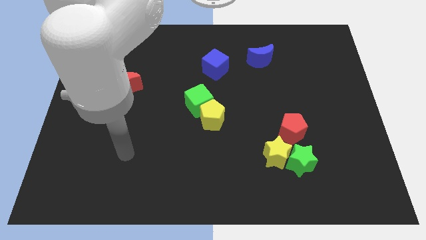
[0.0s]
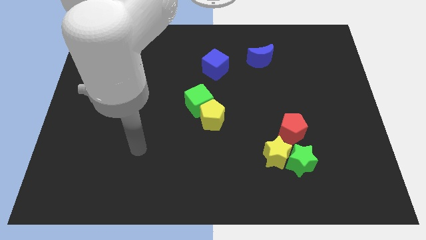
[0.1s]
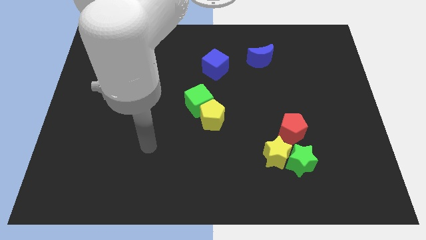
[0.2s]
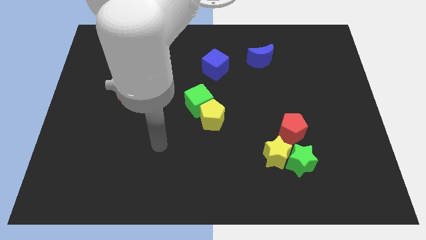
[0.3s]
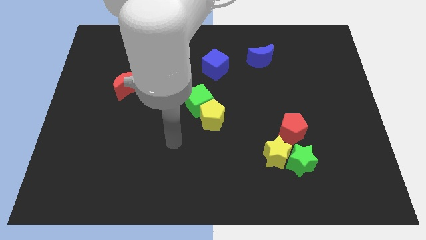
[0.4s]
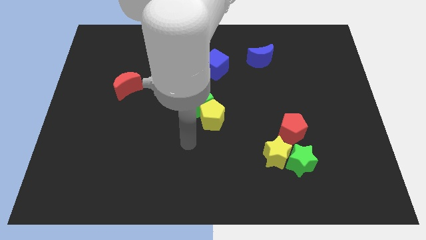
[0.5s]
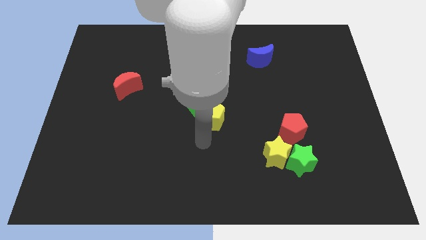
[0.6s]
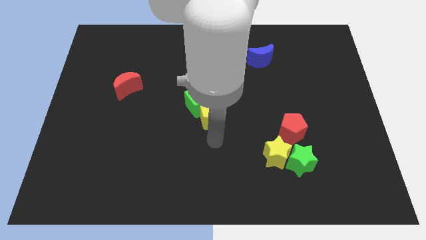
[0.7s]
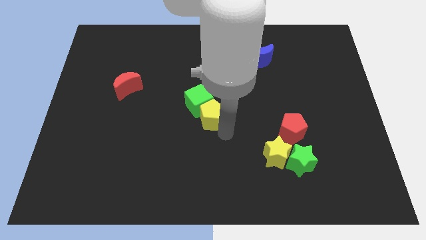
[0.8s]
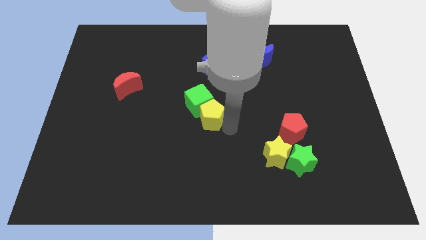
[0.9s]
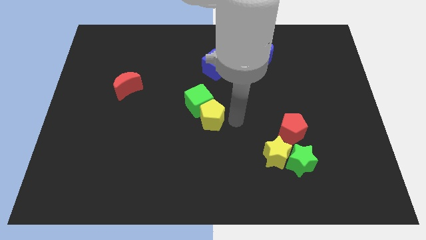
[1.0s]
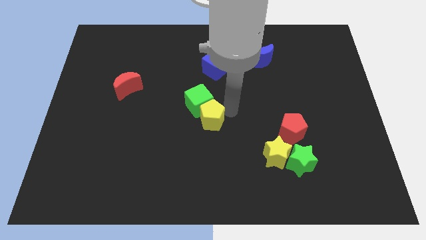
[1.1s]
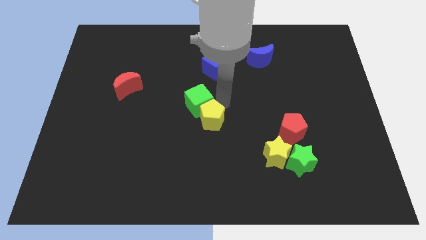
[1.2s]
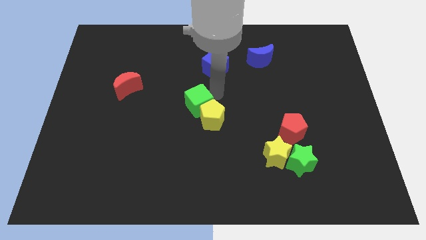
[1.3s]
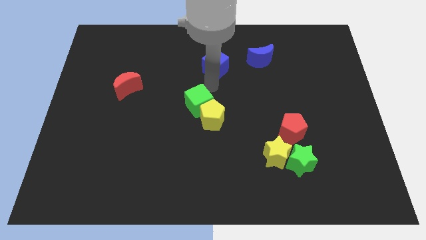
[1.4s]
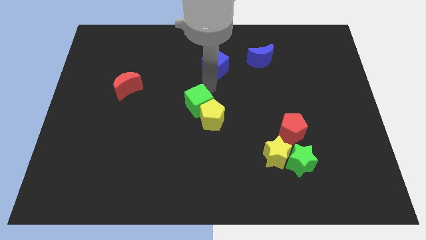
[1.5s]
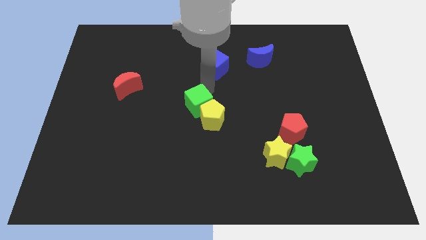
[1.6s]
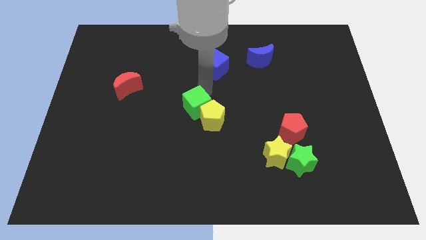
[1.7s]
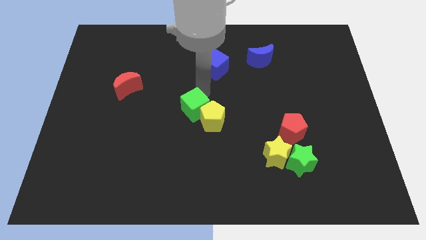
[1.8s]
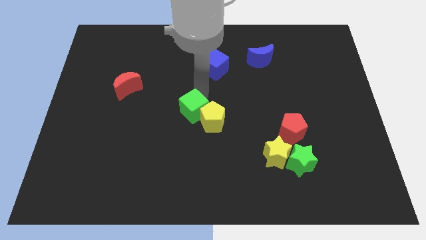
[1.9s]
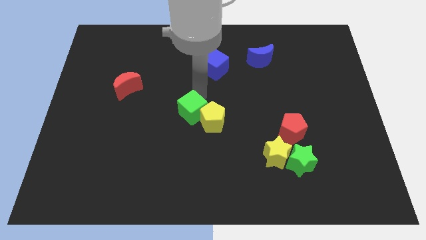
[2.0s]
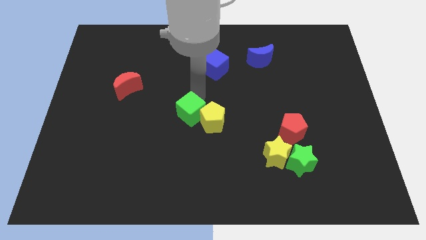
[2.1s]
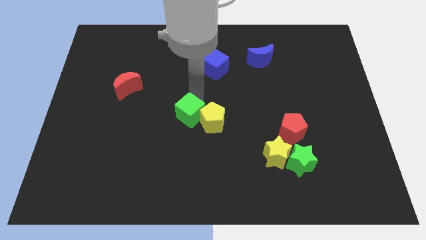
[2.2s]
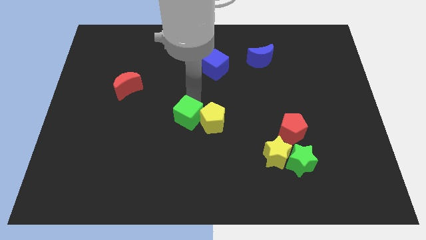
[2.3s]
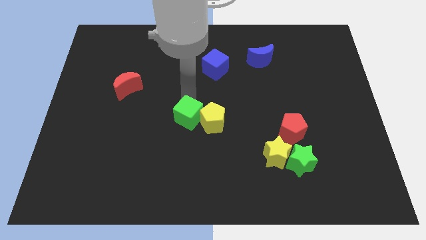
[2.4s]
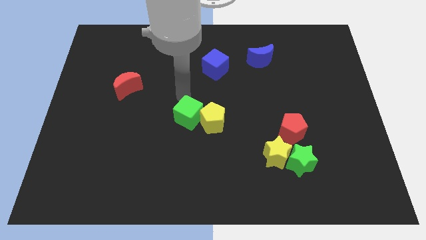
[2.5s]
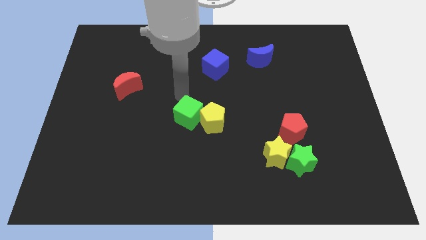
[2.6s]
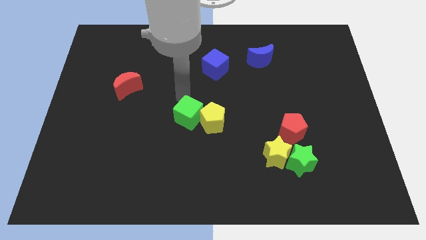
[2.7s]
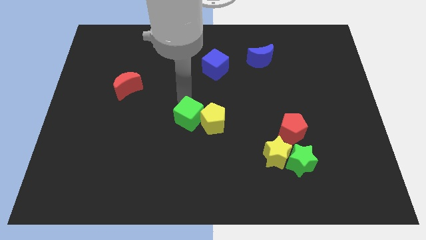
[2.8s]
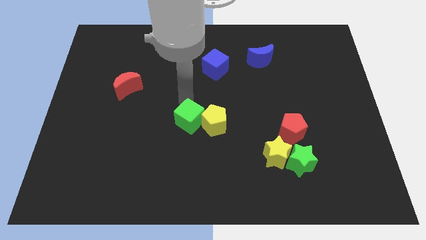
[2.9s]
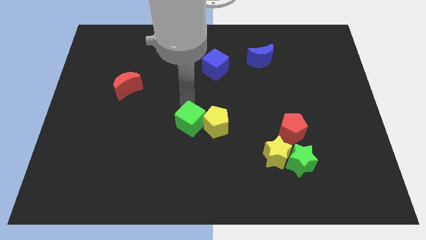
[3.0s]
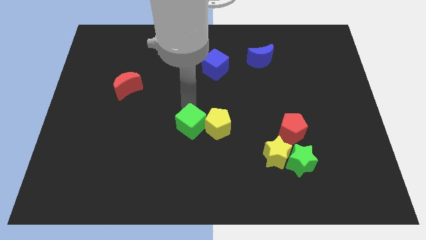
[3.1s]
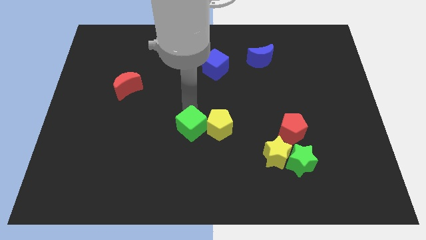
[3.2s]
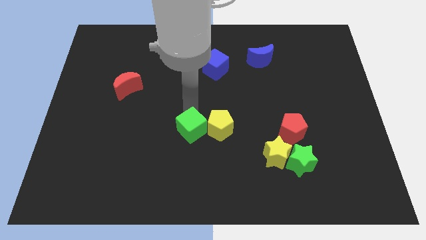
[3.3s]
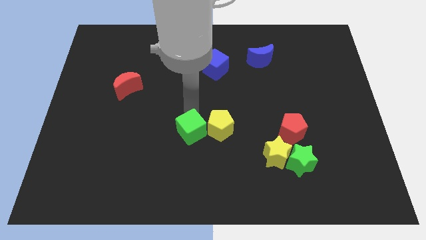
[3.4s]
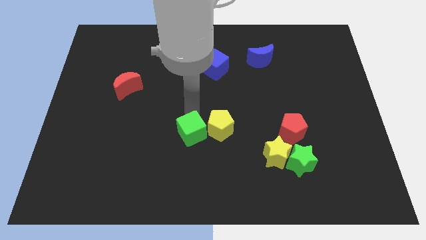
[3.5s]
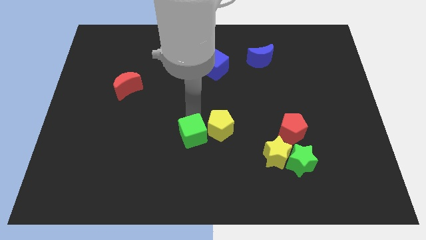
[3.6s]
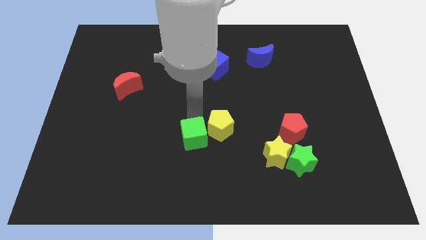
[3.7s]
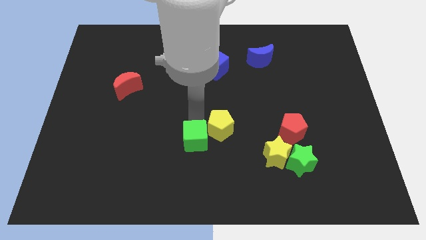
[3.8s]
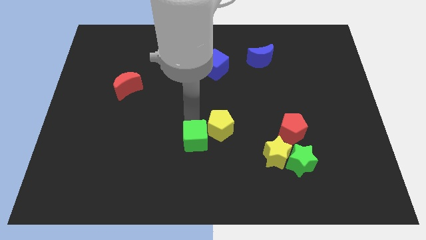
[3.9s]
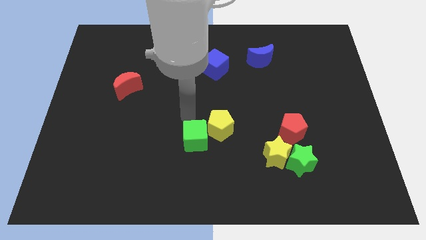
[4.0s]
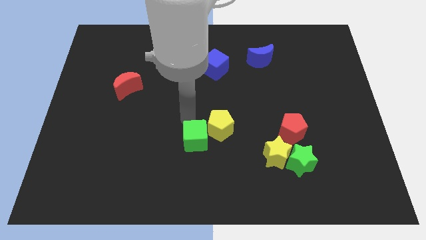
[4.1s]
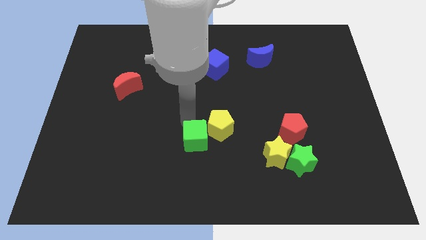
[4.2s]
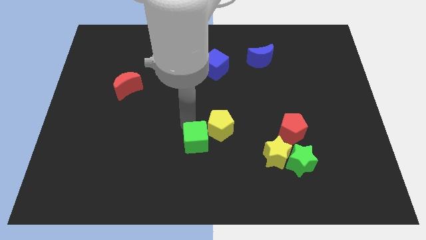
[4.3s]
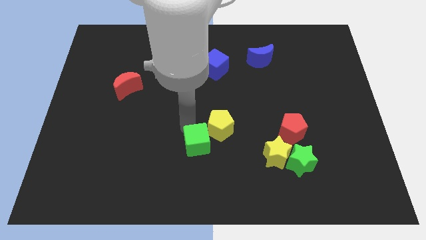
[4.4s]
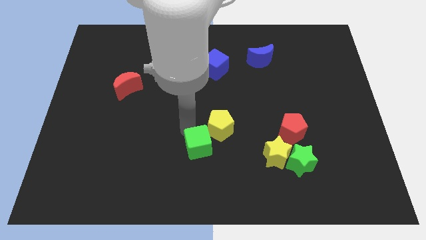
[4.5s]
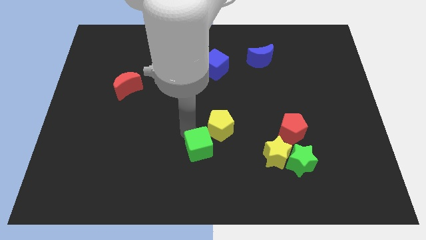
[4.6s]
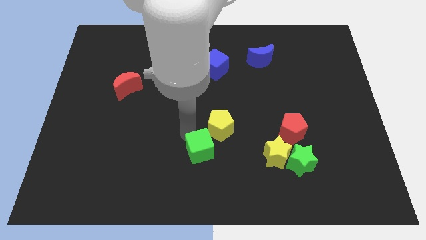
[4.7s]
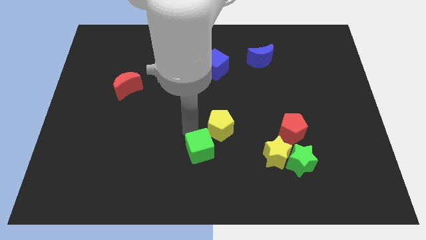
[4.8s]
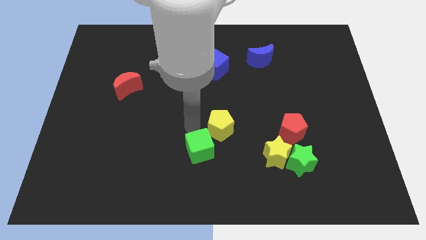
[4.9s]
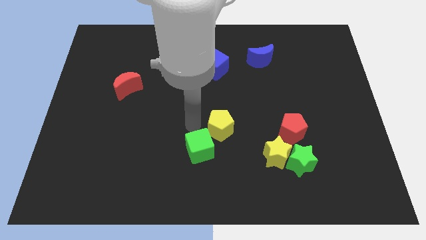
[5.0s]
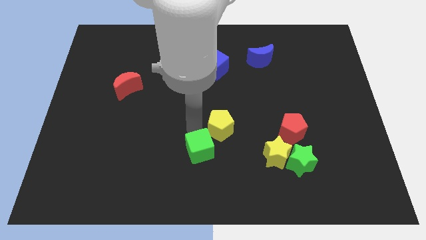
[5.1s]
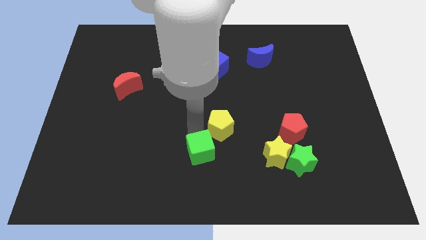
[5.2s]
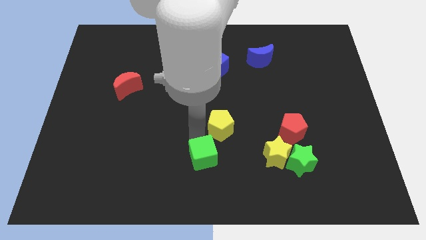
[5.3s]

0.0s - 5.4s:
put the green cube to the bottom side
